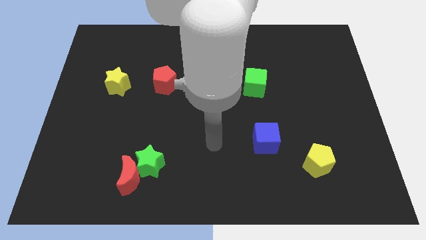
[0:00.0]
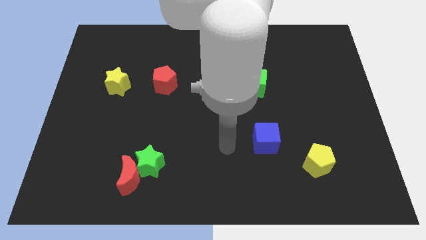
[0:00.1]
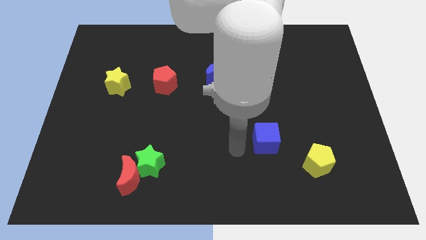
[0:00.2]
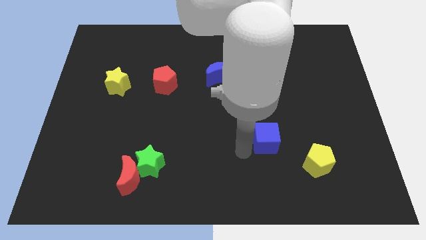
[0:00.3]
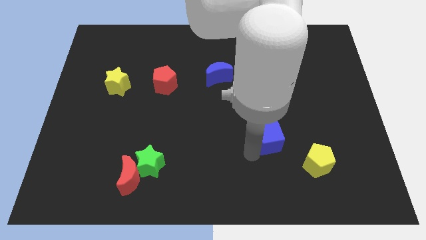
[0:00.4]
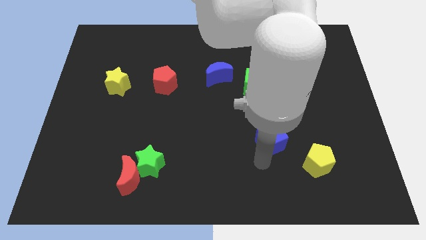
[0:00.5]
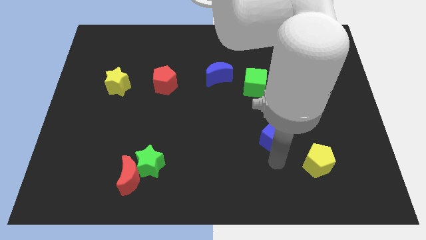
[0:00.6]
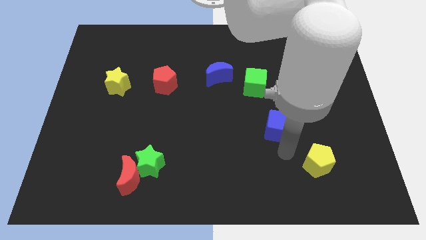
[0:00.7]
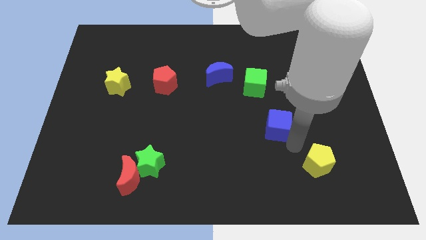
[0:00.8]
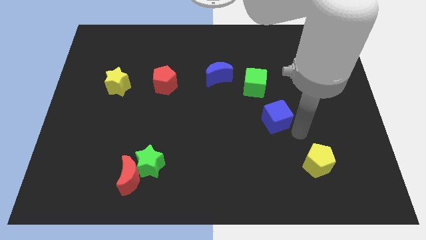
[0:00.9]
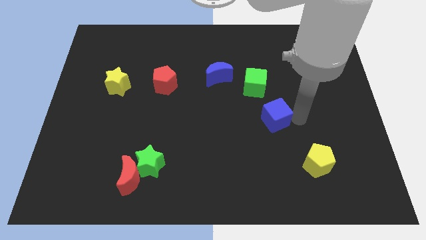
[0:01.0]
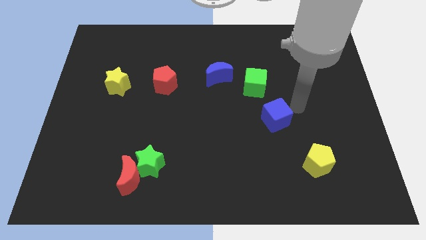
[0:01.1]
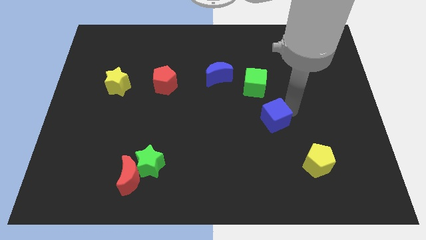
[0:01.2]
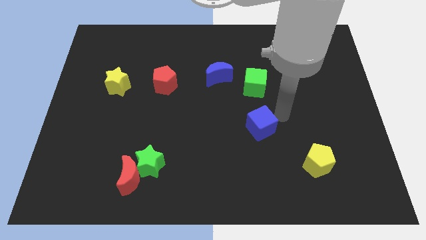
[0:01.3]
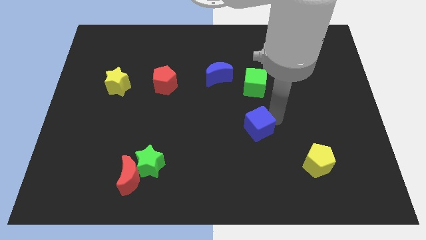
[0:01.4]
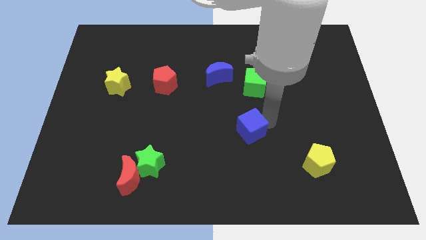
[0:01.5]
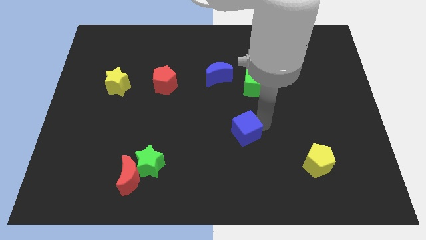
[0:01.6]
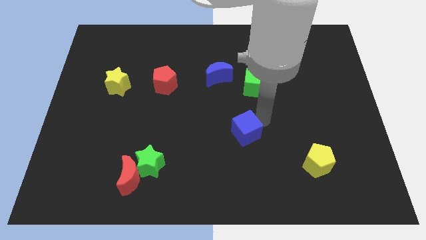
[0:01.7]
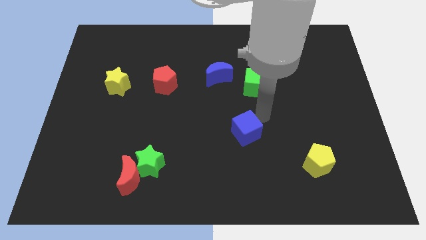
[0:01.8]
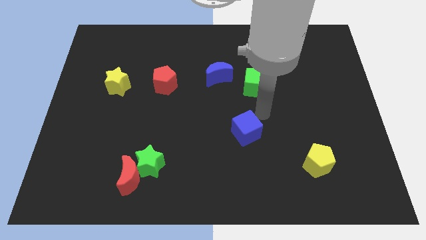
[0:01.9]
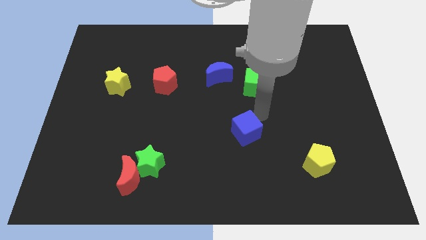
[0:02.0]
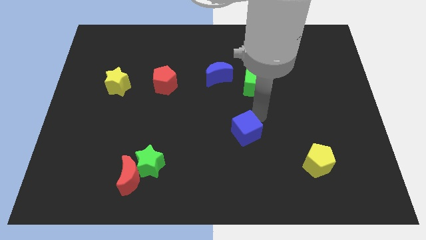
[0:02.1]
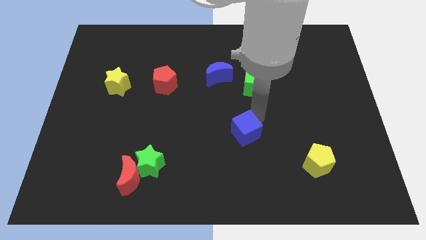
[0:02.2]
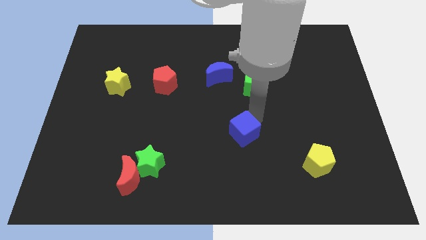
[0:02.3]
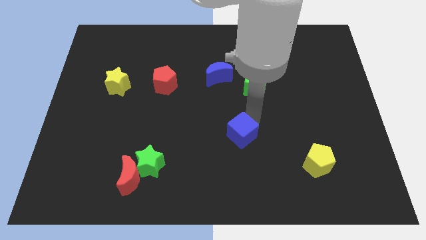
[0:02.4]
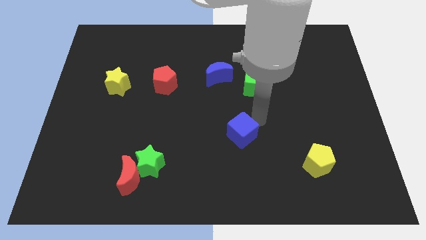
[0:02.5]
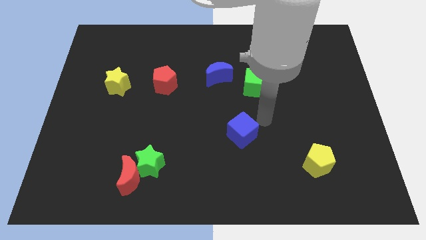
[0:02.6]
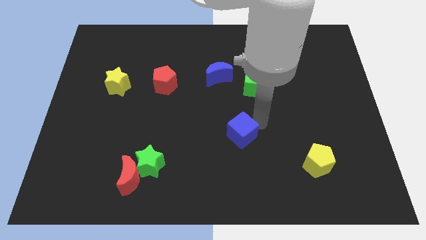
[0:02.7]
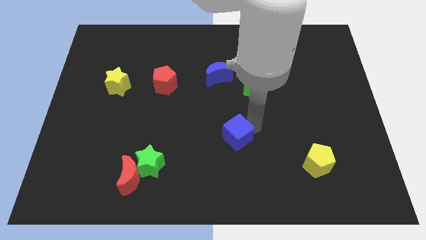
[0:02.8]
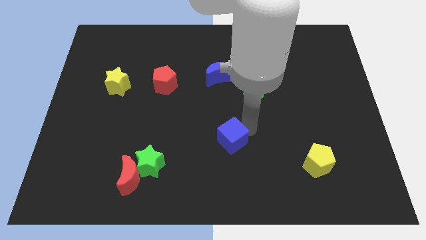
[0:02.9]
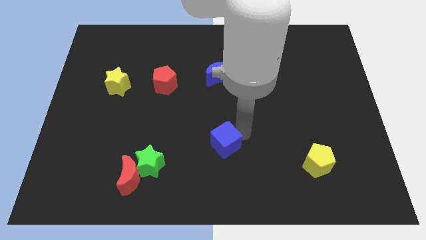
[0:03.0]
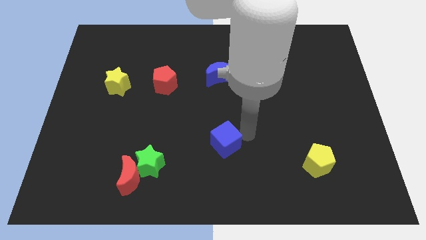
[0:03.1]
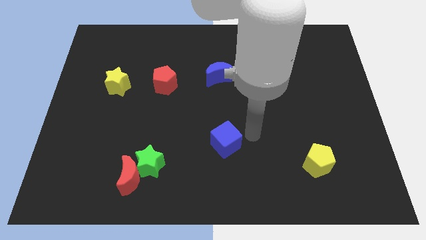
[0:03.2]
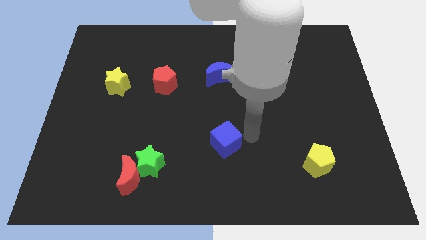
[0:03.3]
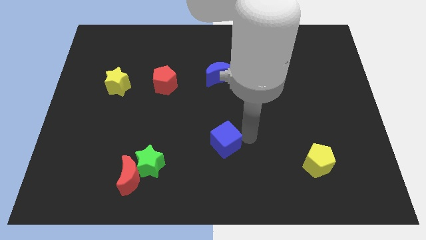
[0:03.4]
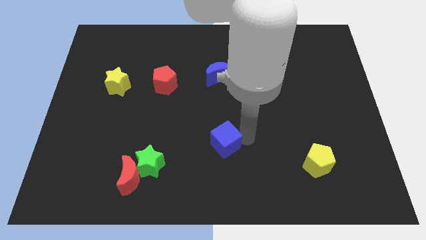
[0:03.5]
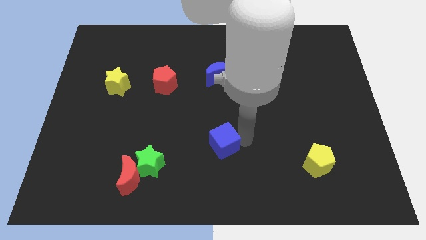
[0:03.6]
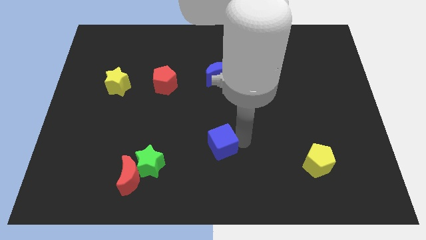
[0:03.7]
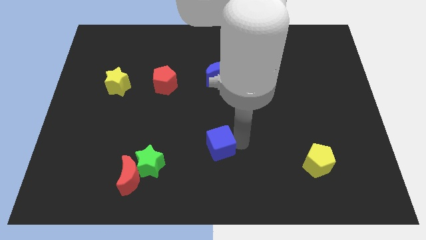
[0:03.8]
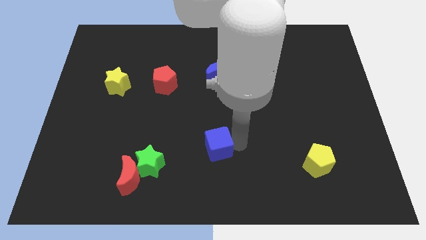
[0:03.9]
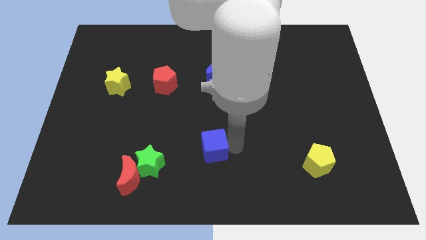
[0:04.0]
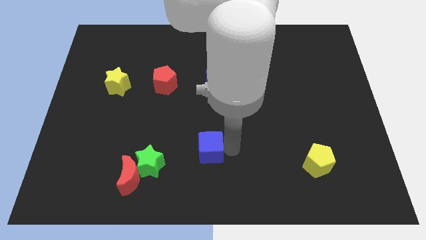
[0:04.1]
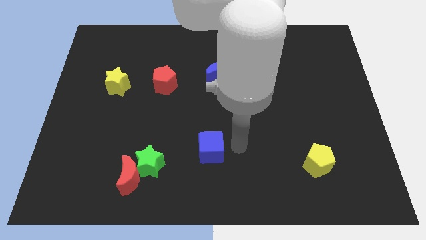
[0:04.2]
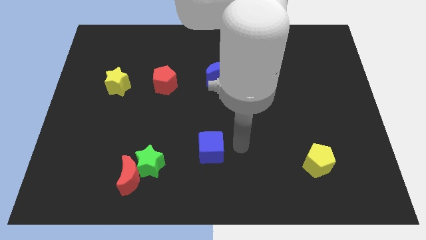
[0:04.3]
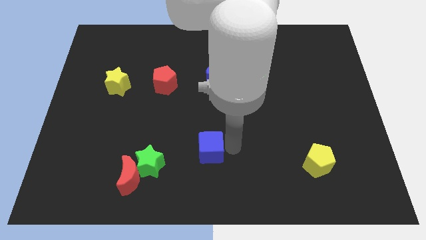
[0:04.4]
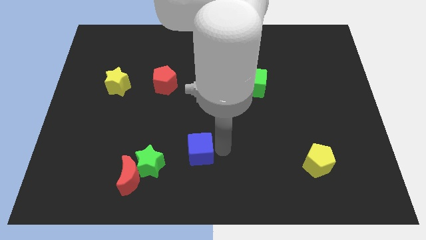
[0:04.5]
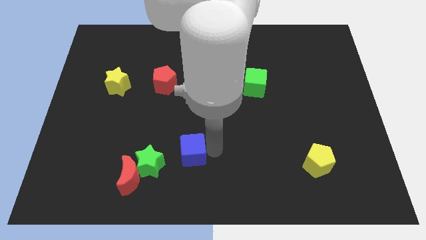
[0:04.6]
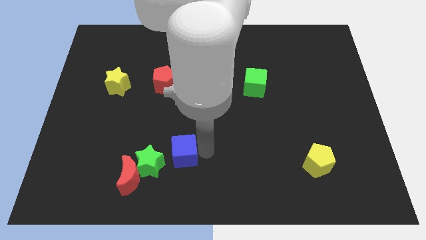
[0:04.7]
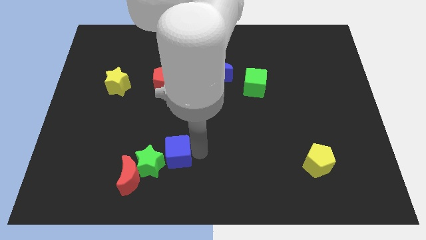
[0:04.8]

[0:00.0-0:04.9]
slide the blue cube close to the green star

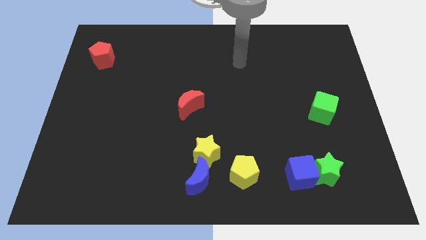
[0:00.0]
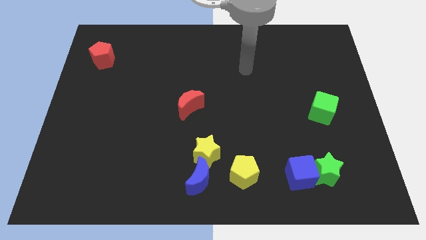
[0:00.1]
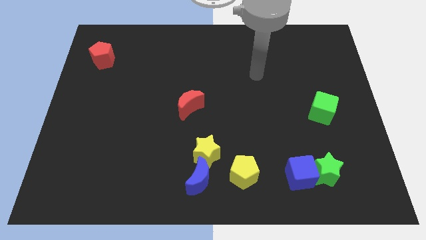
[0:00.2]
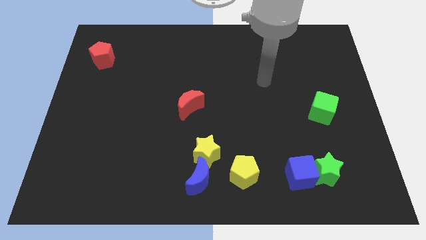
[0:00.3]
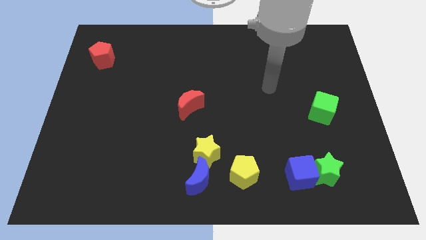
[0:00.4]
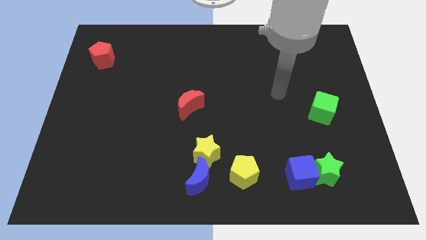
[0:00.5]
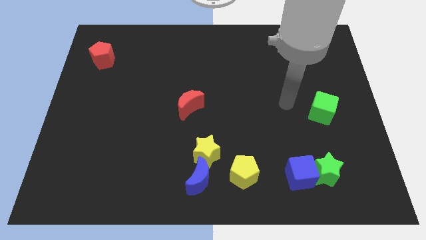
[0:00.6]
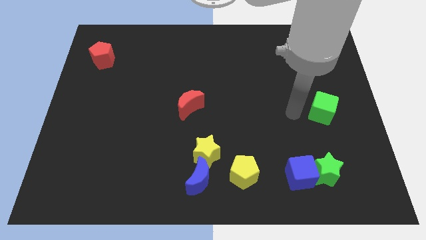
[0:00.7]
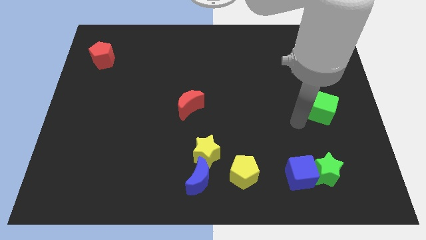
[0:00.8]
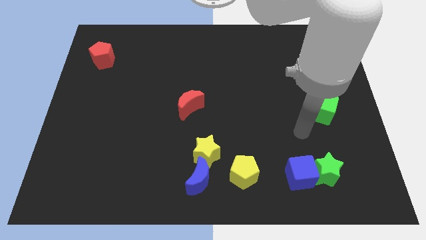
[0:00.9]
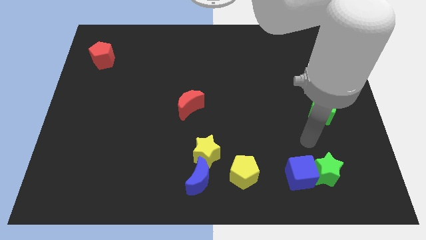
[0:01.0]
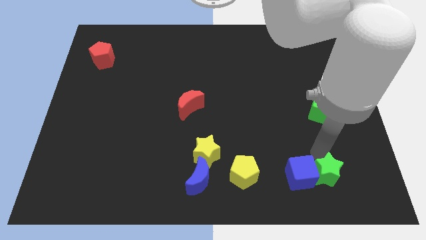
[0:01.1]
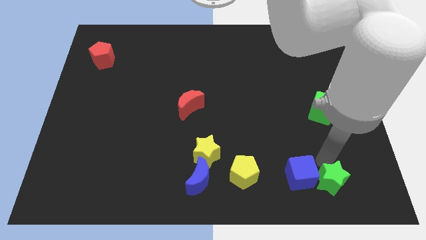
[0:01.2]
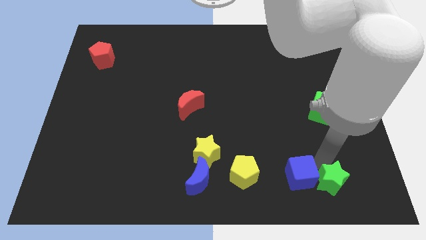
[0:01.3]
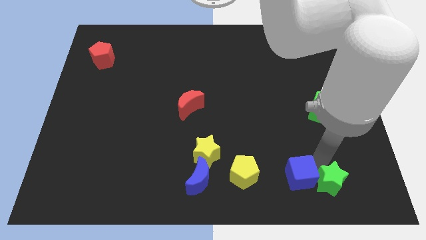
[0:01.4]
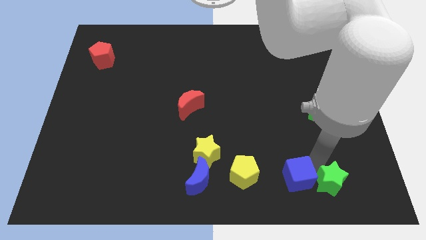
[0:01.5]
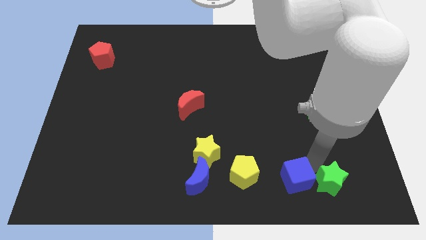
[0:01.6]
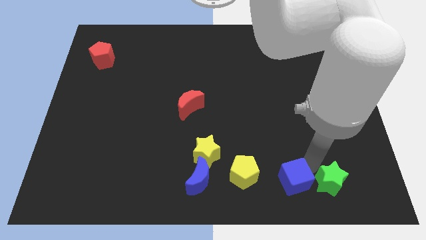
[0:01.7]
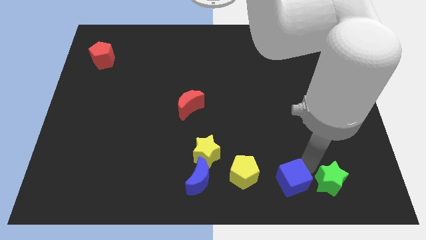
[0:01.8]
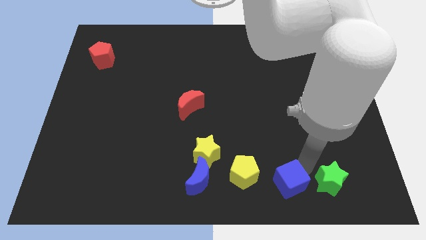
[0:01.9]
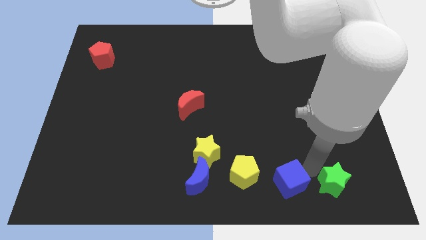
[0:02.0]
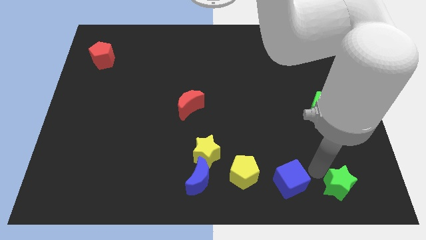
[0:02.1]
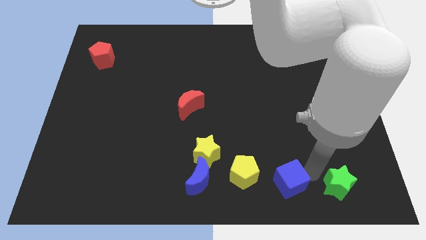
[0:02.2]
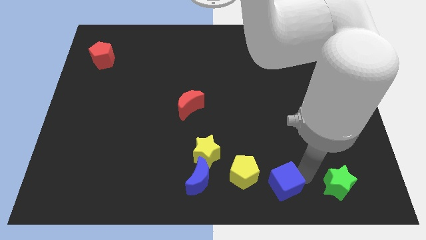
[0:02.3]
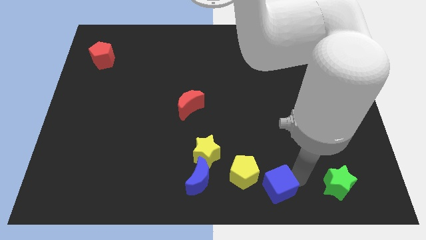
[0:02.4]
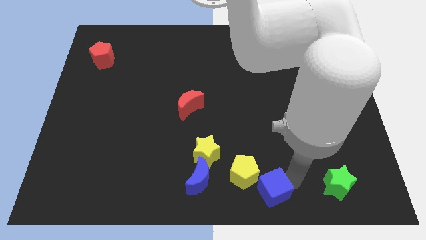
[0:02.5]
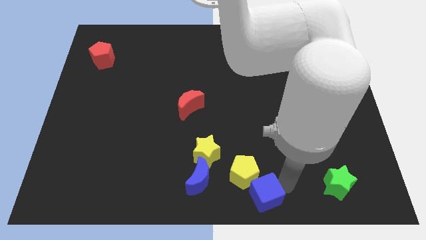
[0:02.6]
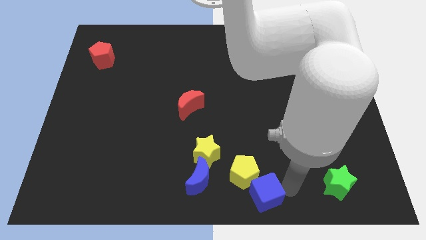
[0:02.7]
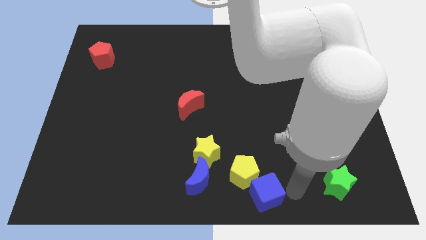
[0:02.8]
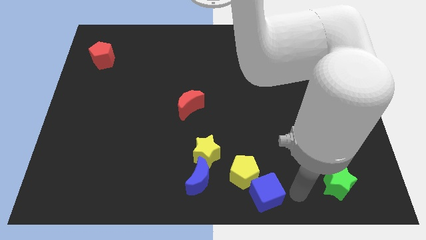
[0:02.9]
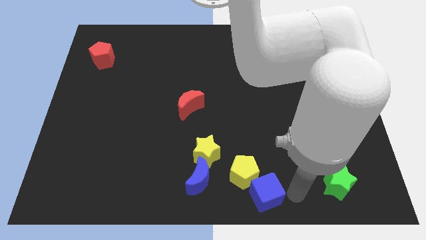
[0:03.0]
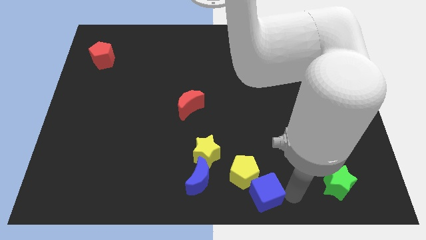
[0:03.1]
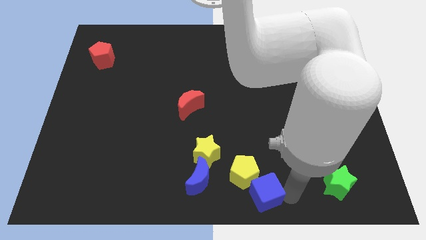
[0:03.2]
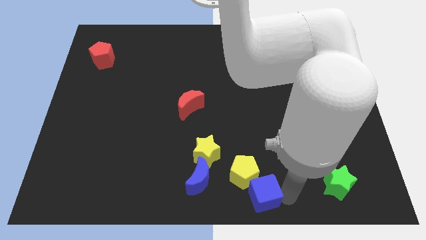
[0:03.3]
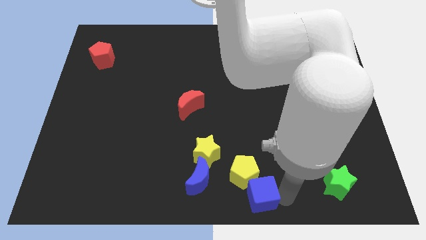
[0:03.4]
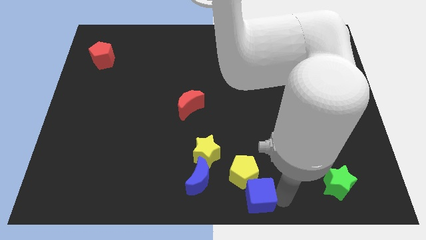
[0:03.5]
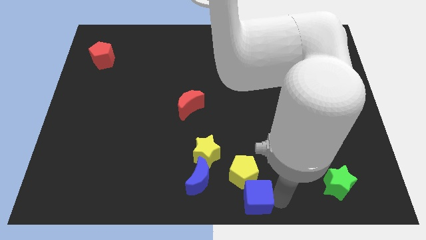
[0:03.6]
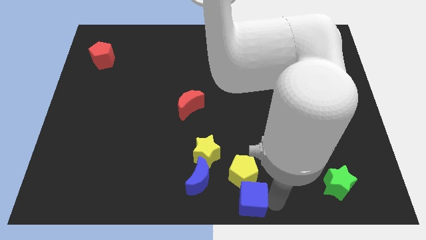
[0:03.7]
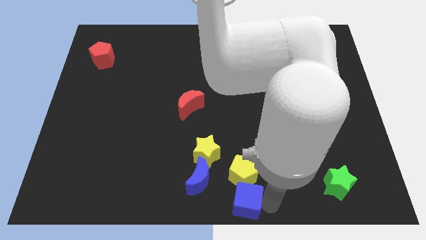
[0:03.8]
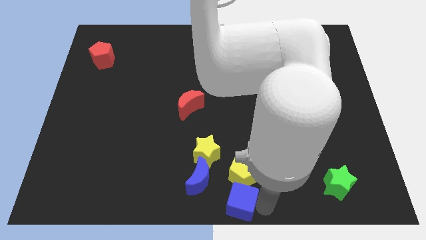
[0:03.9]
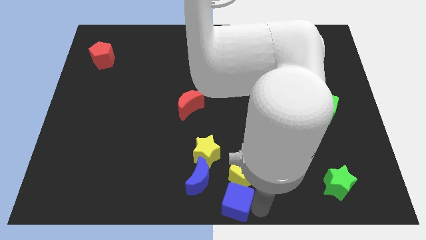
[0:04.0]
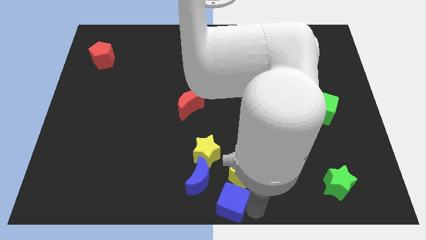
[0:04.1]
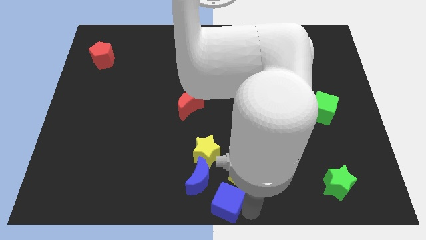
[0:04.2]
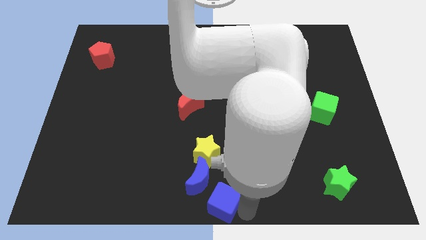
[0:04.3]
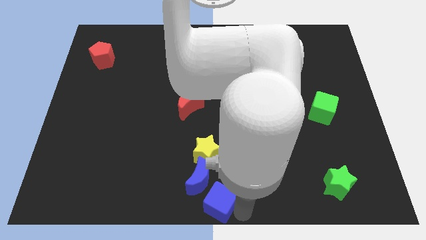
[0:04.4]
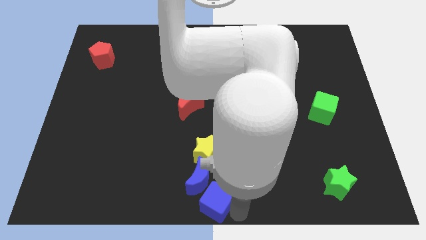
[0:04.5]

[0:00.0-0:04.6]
slide the blue cube next to the blue moon
